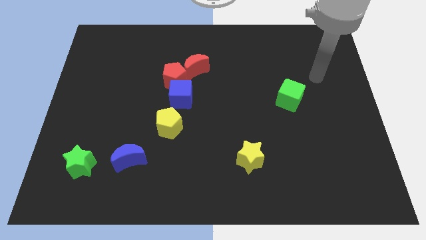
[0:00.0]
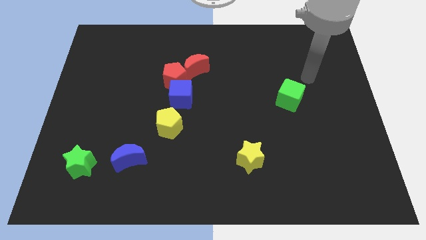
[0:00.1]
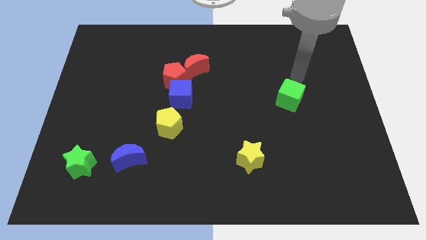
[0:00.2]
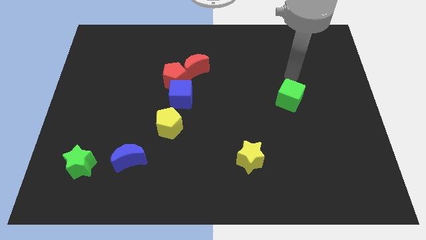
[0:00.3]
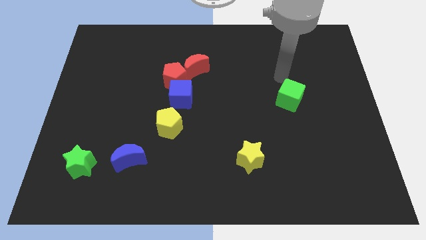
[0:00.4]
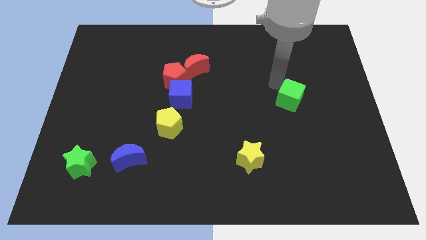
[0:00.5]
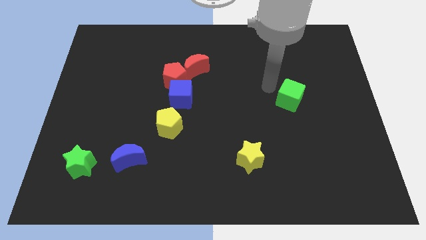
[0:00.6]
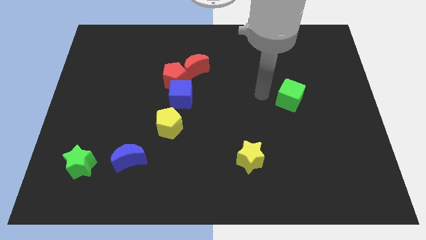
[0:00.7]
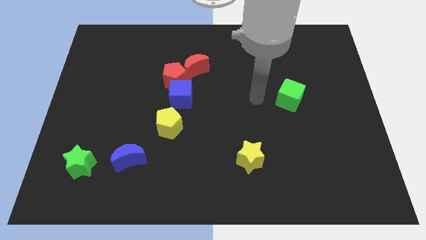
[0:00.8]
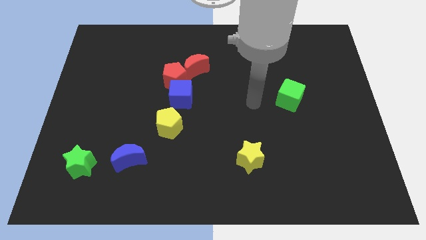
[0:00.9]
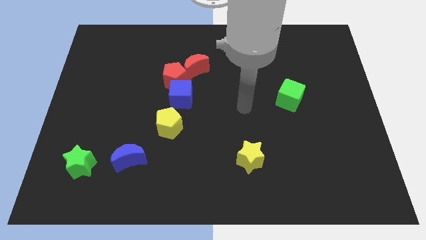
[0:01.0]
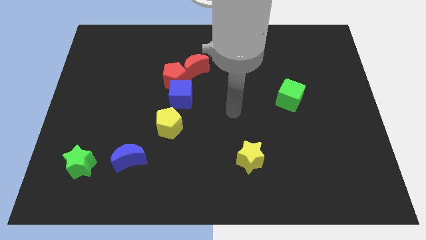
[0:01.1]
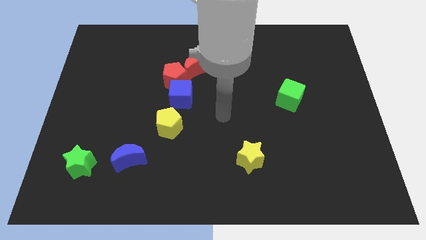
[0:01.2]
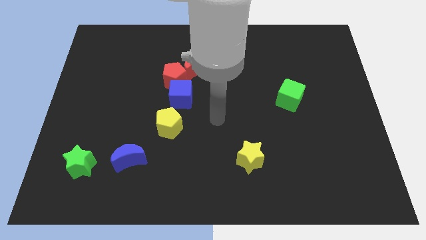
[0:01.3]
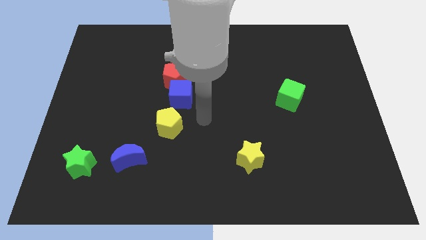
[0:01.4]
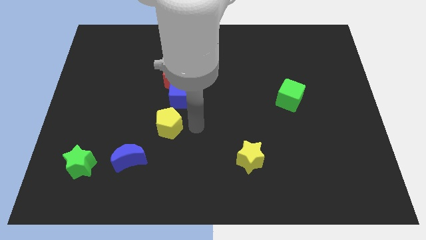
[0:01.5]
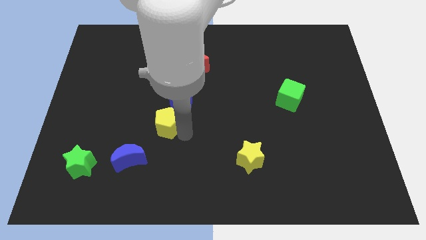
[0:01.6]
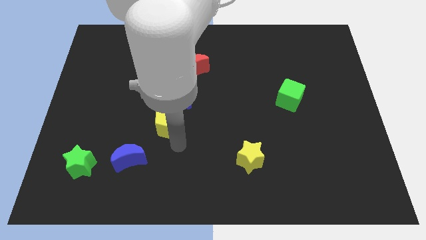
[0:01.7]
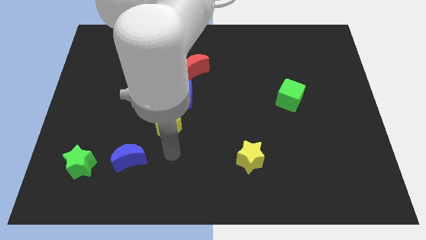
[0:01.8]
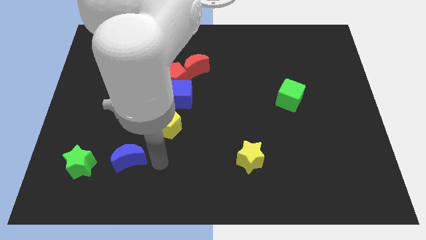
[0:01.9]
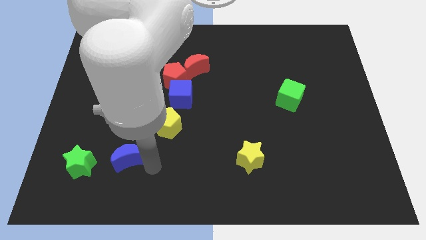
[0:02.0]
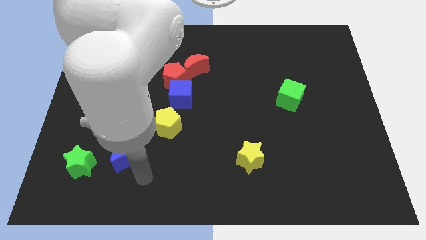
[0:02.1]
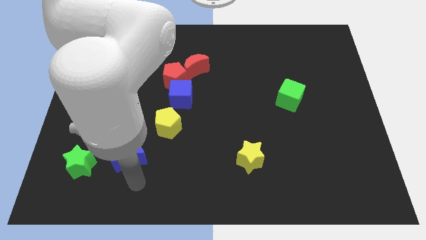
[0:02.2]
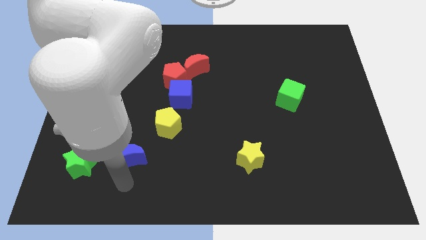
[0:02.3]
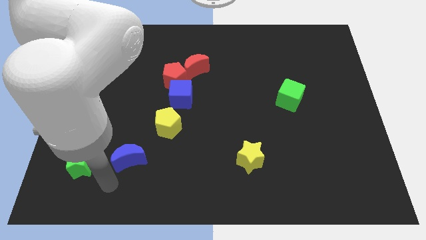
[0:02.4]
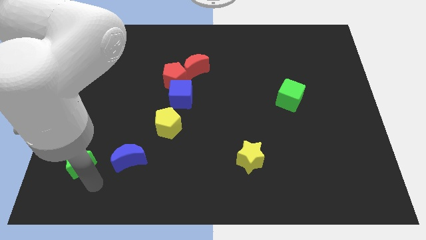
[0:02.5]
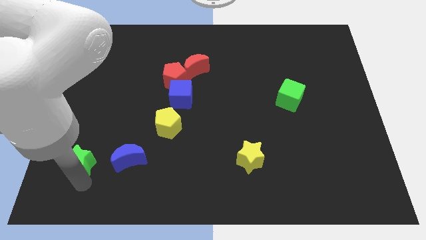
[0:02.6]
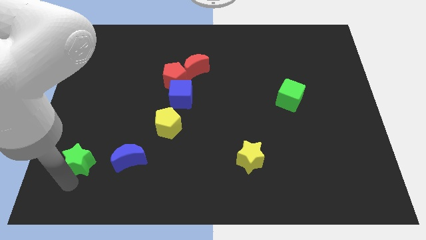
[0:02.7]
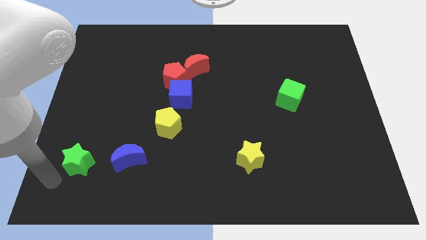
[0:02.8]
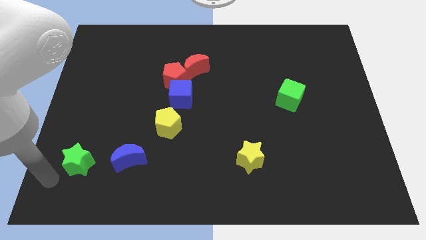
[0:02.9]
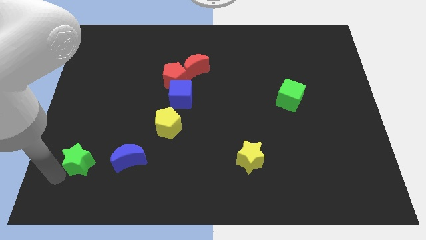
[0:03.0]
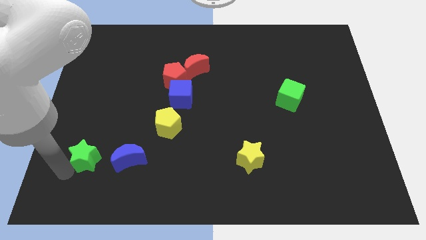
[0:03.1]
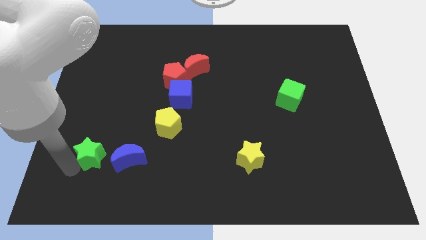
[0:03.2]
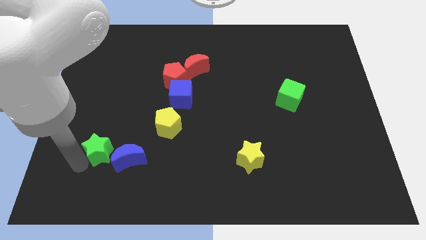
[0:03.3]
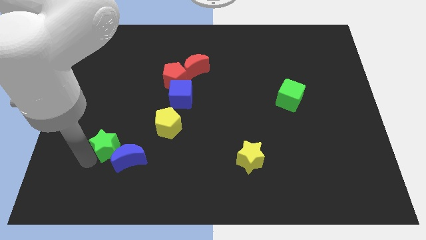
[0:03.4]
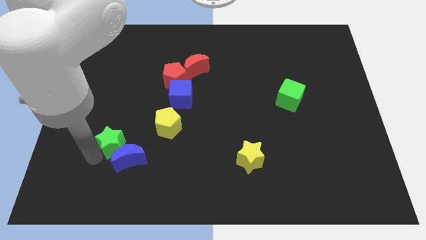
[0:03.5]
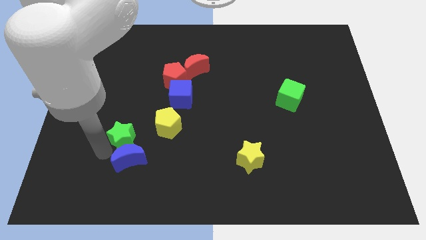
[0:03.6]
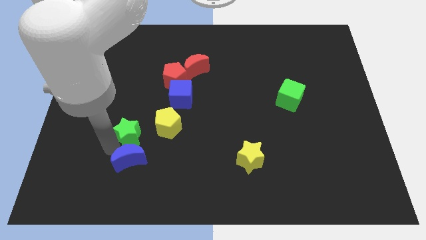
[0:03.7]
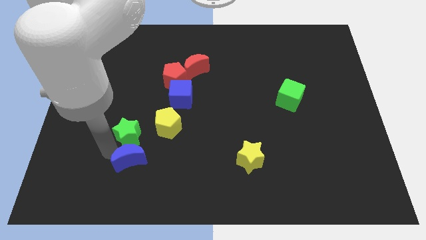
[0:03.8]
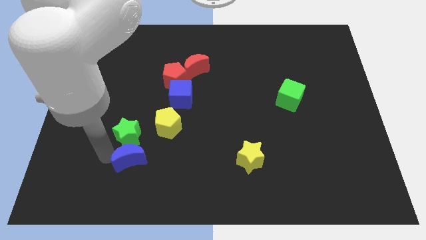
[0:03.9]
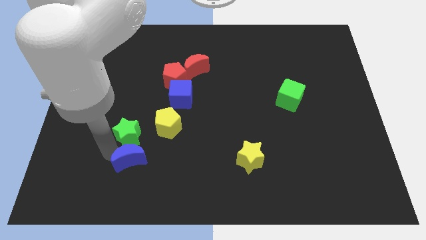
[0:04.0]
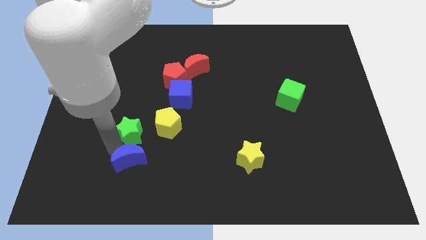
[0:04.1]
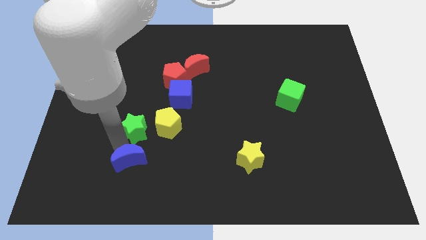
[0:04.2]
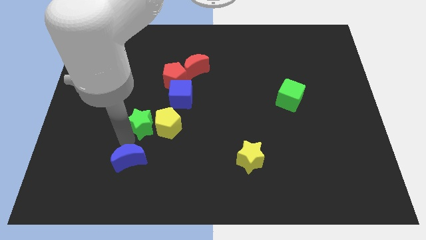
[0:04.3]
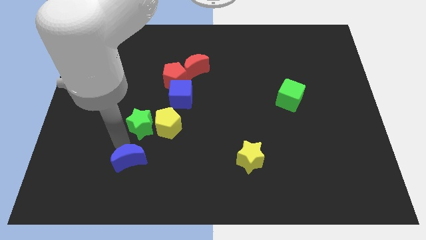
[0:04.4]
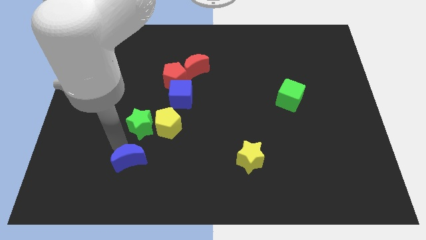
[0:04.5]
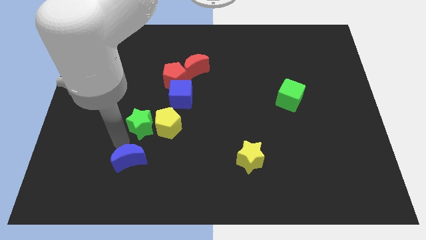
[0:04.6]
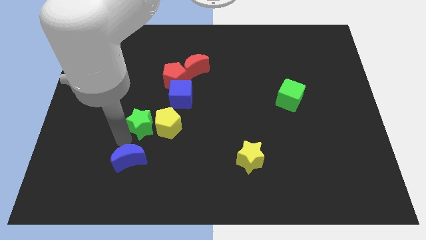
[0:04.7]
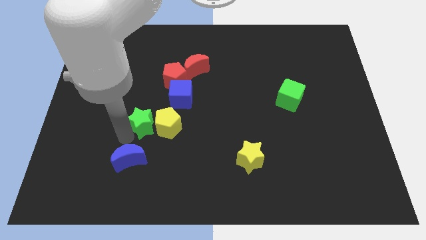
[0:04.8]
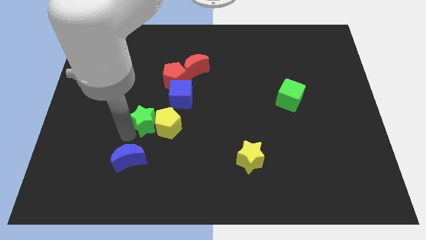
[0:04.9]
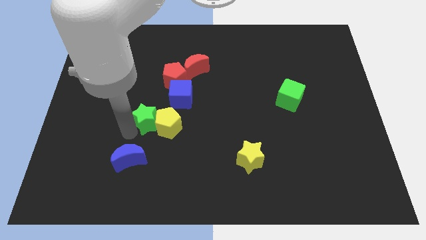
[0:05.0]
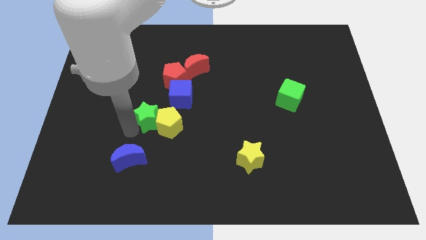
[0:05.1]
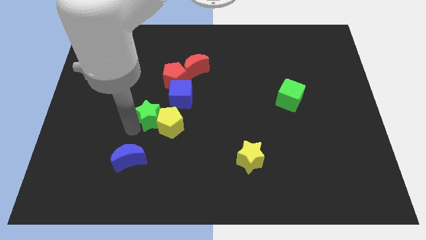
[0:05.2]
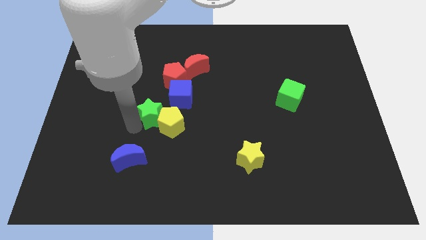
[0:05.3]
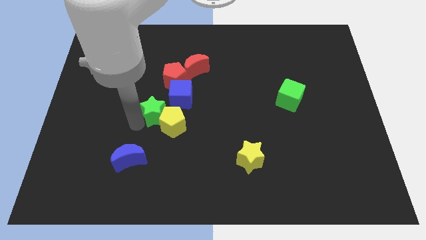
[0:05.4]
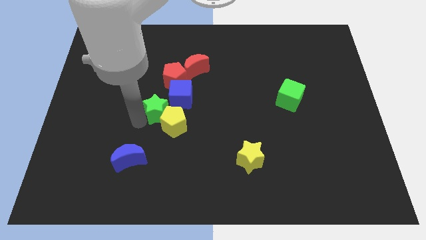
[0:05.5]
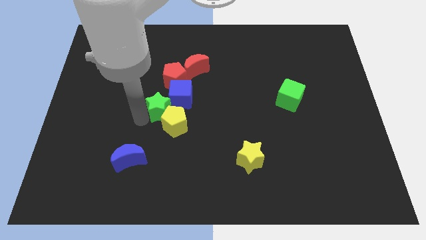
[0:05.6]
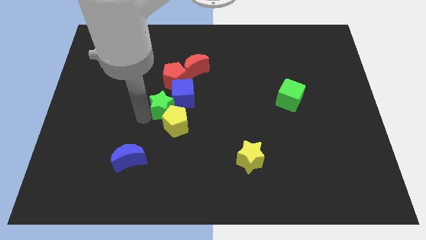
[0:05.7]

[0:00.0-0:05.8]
push the green star to the center of the board
